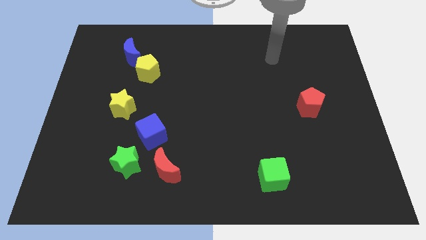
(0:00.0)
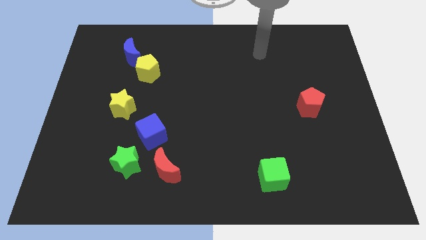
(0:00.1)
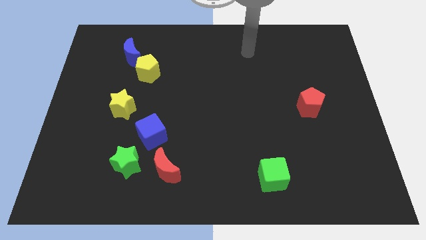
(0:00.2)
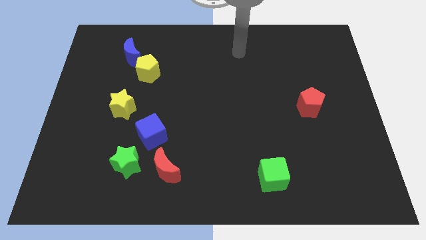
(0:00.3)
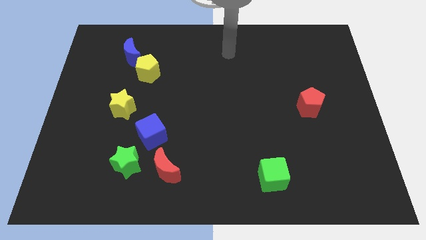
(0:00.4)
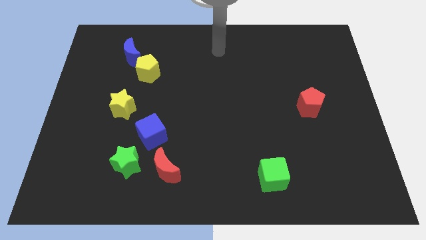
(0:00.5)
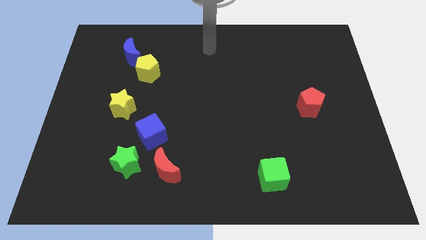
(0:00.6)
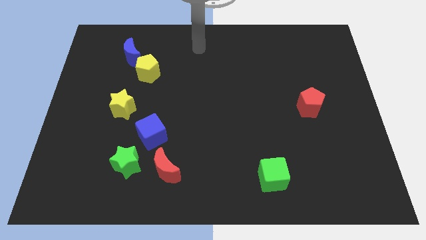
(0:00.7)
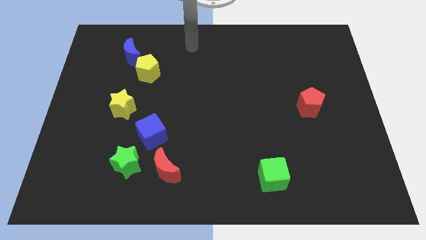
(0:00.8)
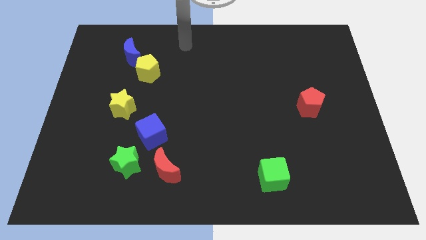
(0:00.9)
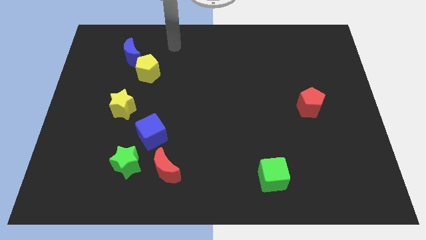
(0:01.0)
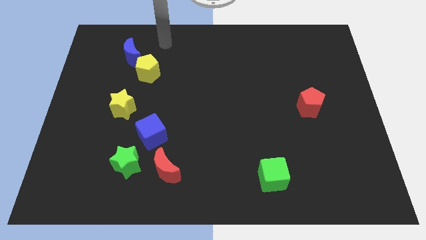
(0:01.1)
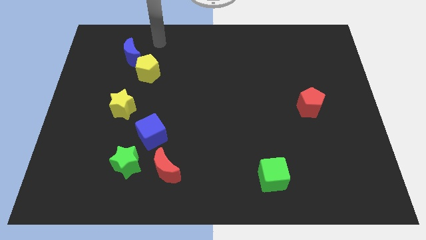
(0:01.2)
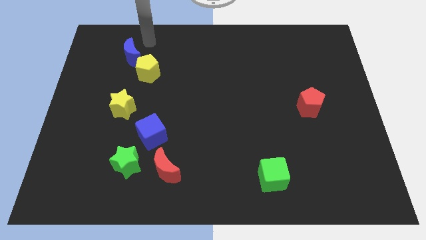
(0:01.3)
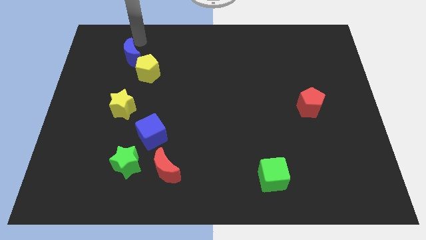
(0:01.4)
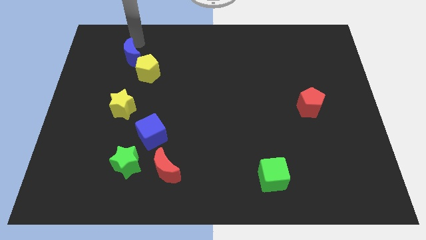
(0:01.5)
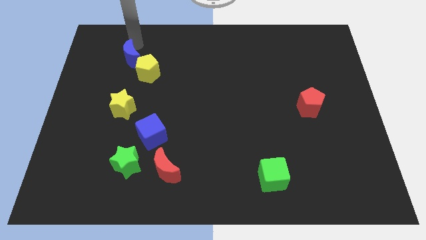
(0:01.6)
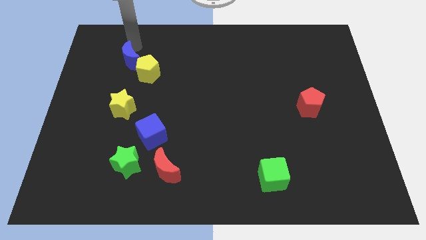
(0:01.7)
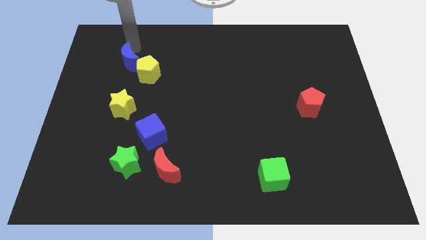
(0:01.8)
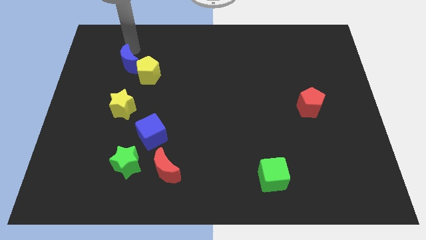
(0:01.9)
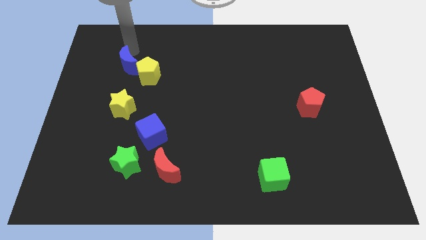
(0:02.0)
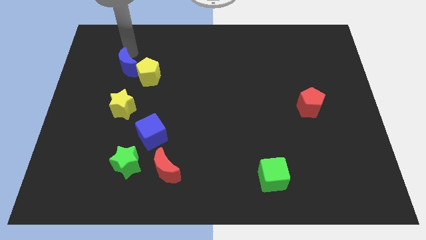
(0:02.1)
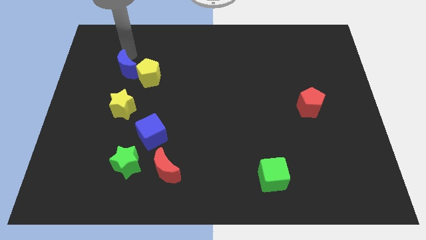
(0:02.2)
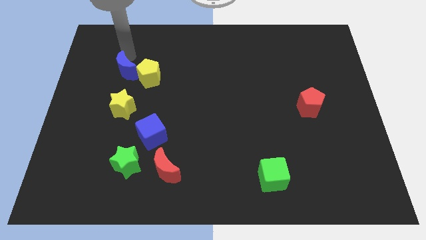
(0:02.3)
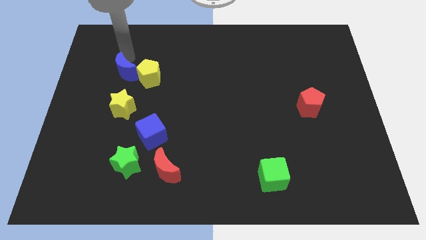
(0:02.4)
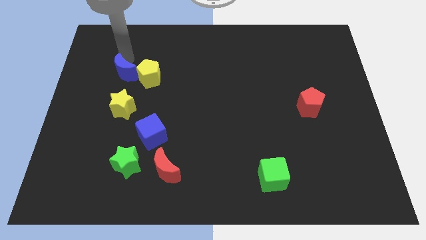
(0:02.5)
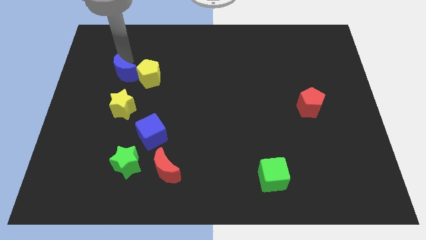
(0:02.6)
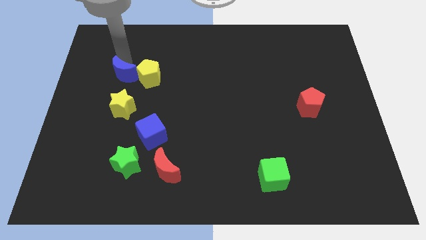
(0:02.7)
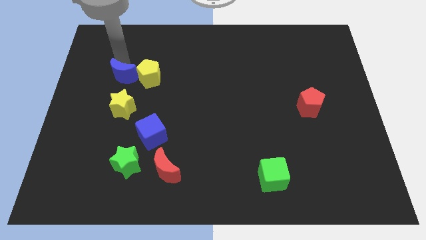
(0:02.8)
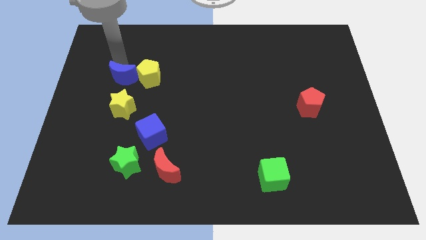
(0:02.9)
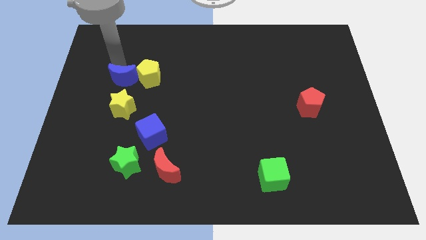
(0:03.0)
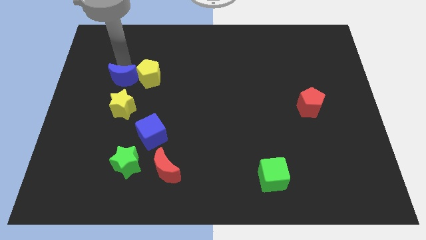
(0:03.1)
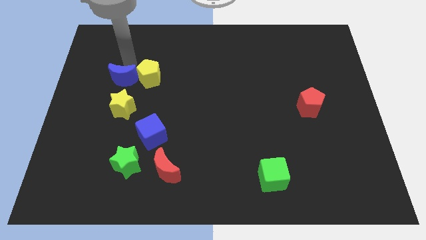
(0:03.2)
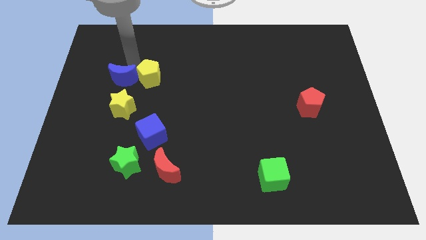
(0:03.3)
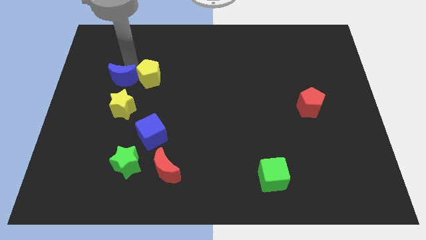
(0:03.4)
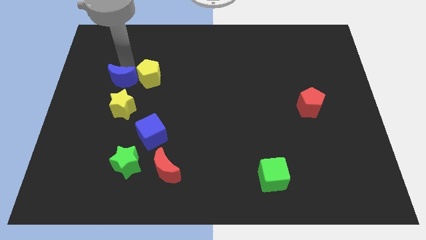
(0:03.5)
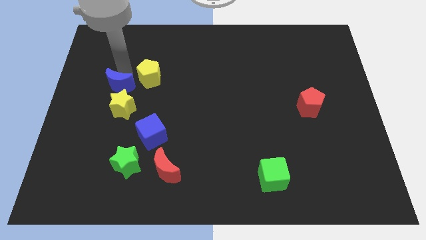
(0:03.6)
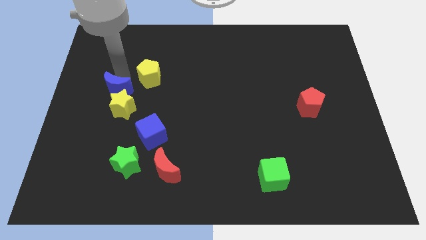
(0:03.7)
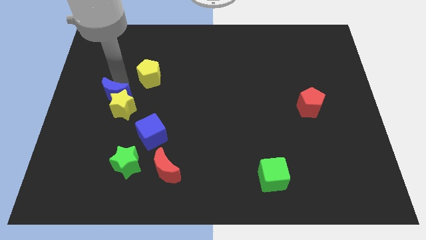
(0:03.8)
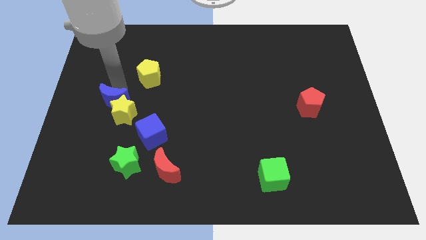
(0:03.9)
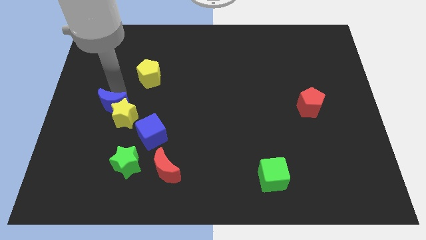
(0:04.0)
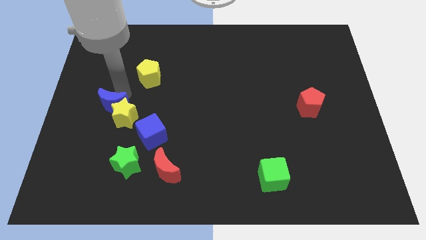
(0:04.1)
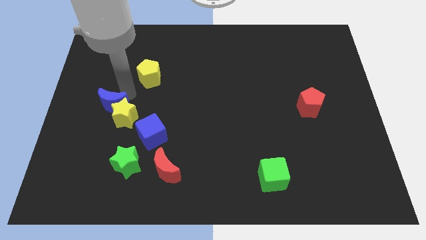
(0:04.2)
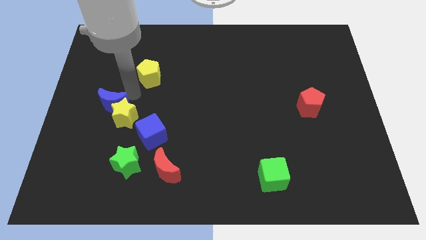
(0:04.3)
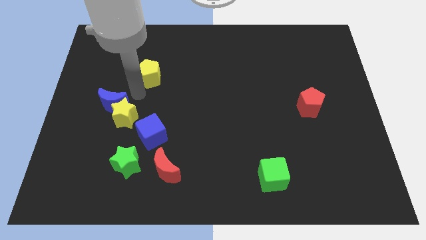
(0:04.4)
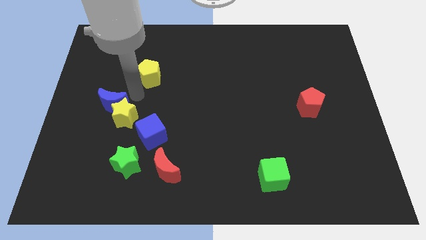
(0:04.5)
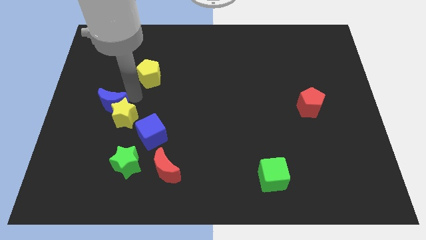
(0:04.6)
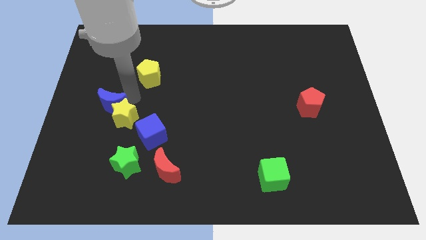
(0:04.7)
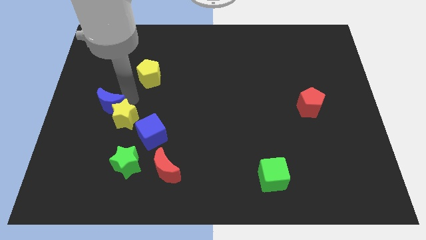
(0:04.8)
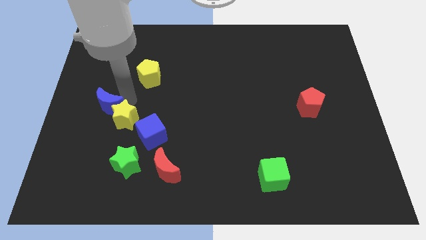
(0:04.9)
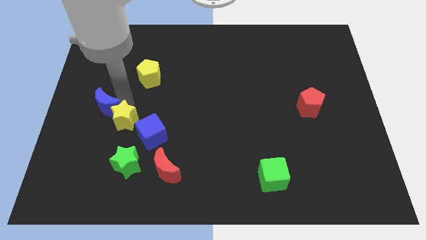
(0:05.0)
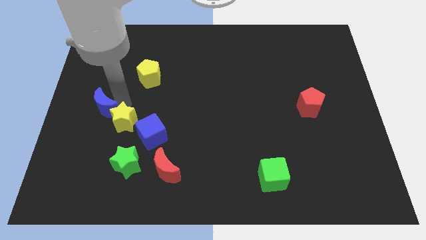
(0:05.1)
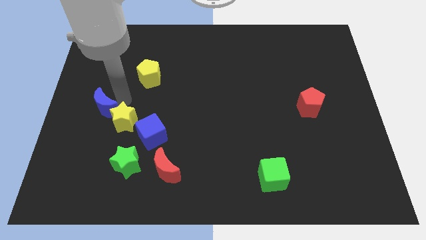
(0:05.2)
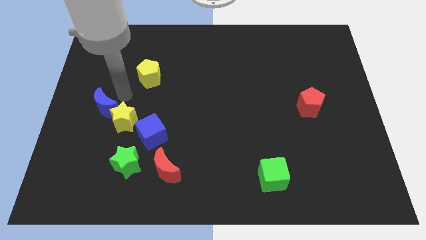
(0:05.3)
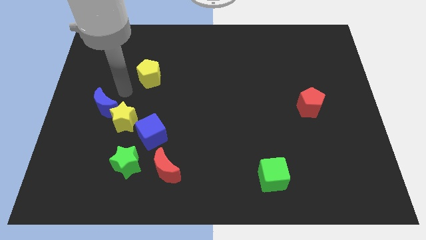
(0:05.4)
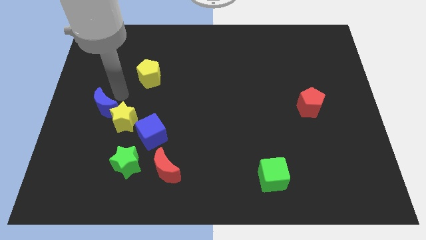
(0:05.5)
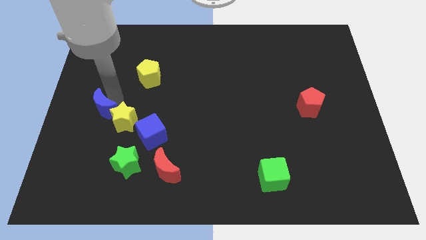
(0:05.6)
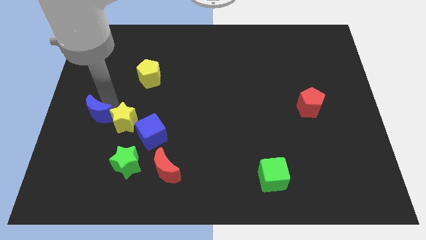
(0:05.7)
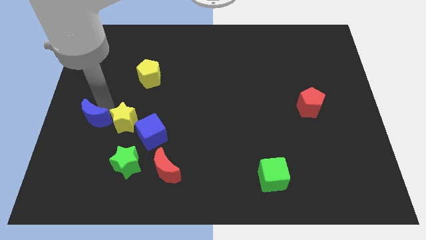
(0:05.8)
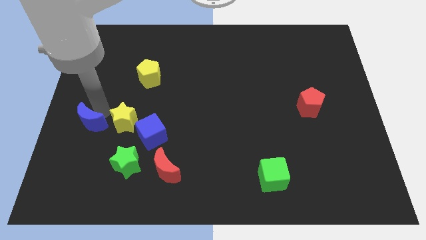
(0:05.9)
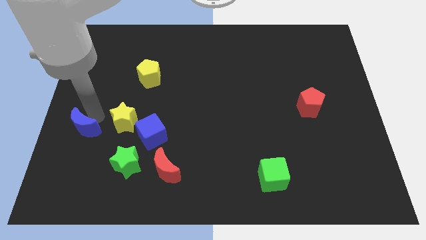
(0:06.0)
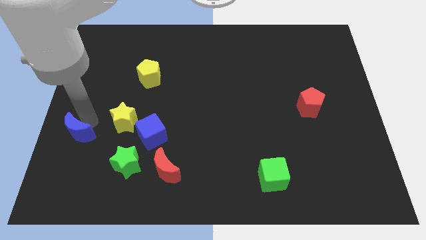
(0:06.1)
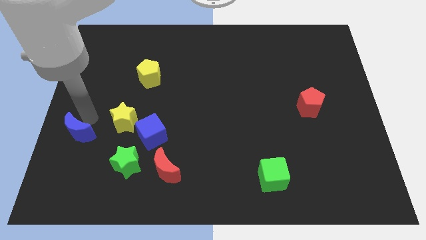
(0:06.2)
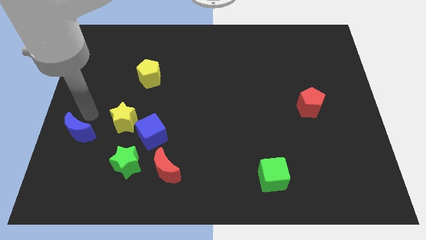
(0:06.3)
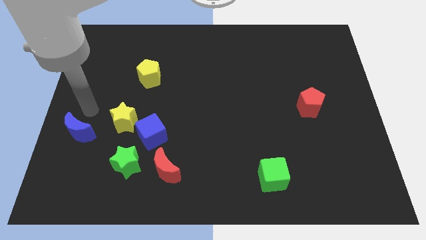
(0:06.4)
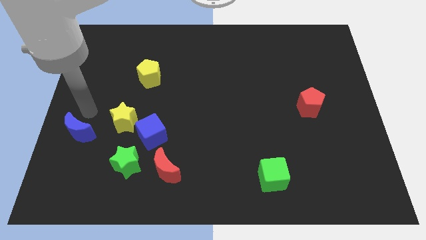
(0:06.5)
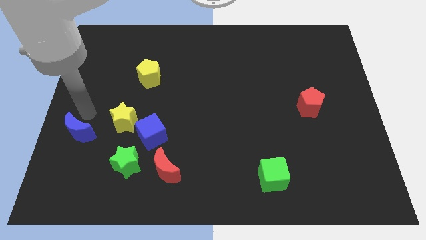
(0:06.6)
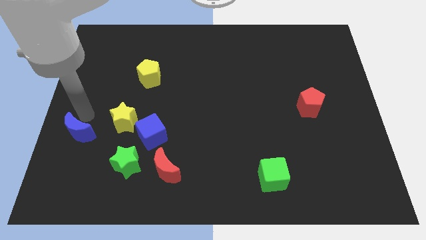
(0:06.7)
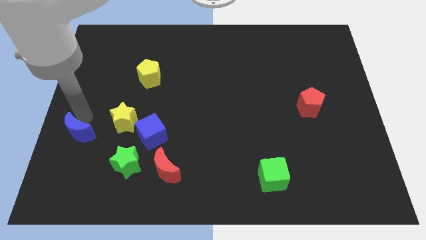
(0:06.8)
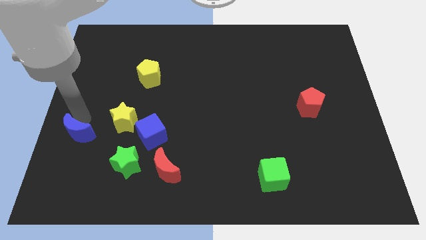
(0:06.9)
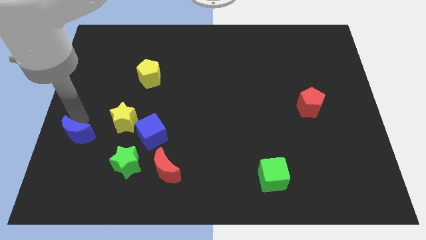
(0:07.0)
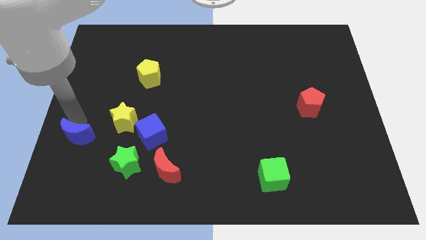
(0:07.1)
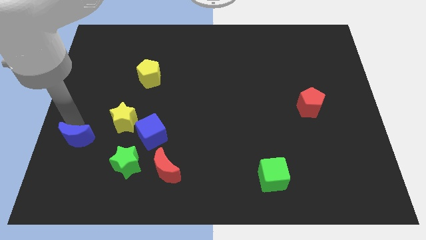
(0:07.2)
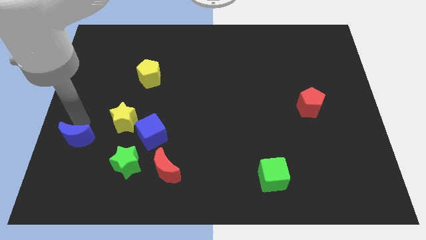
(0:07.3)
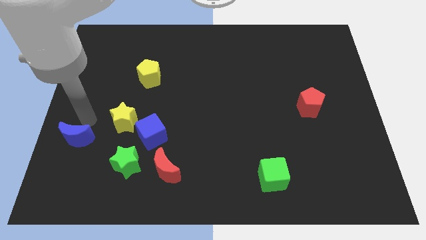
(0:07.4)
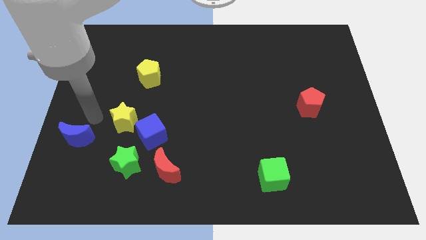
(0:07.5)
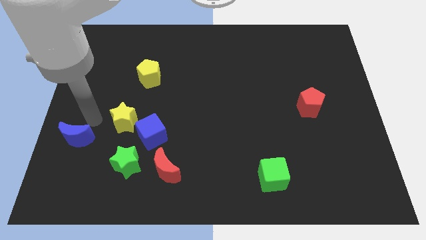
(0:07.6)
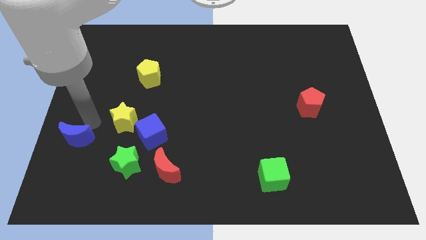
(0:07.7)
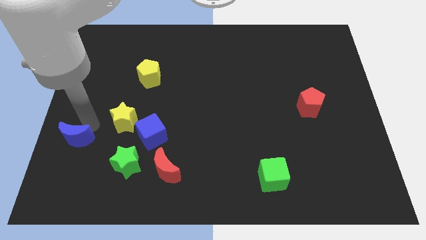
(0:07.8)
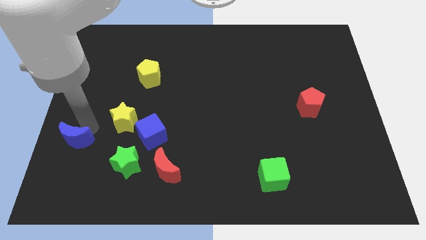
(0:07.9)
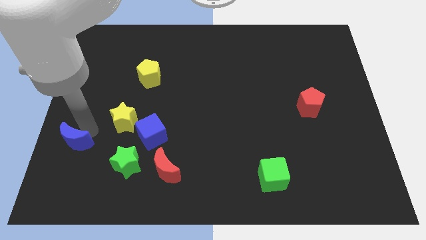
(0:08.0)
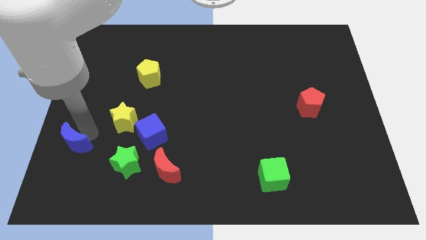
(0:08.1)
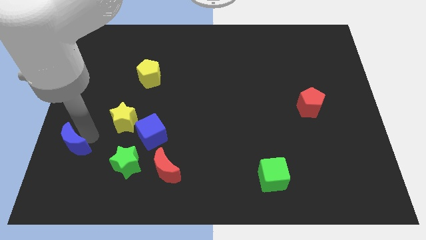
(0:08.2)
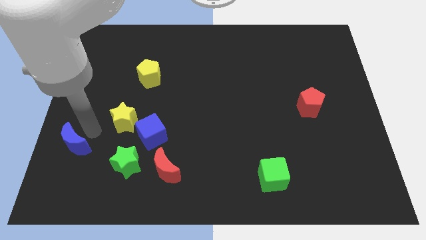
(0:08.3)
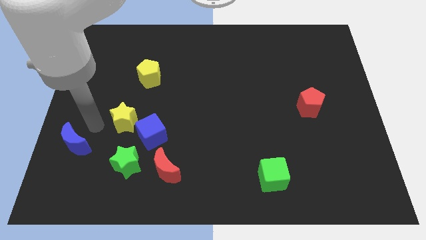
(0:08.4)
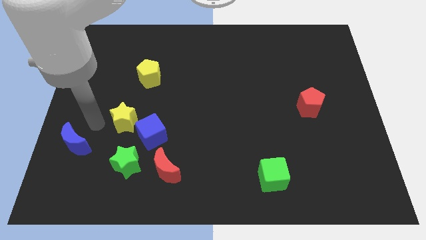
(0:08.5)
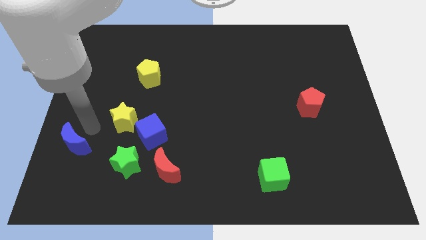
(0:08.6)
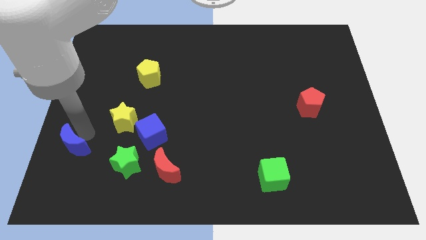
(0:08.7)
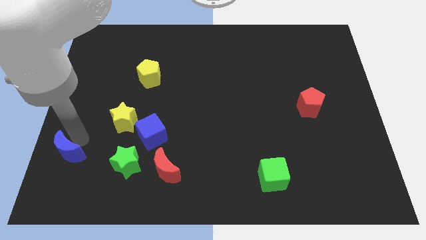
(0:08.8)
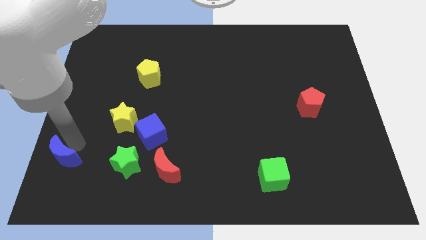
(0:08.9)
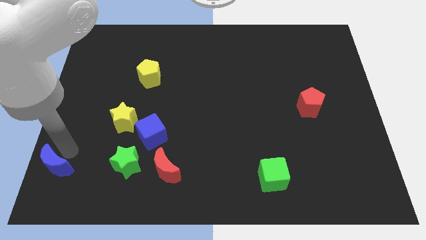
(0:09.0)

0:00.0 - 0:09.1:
move the blue moon to the lower left corner
